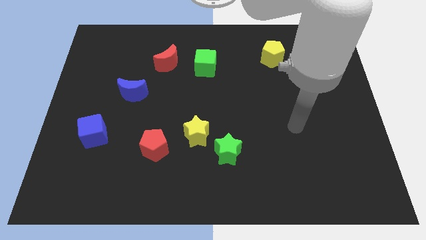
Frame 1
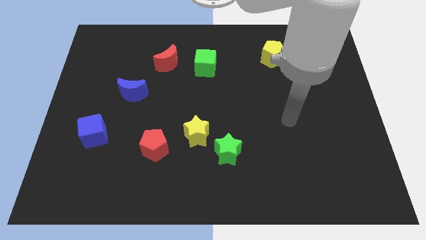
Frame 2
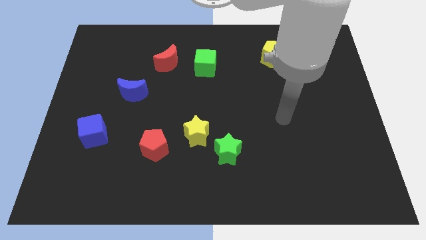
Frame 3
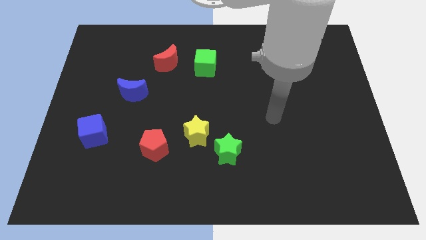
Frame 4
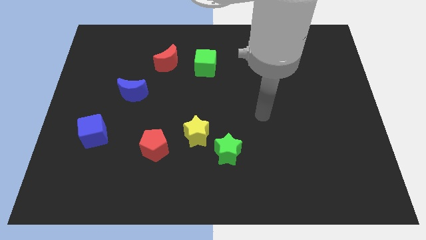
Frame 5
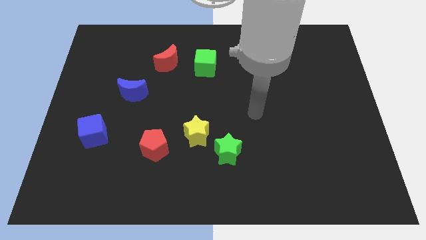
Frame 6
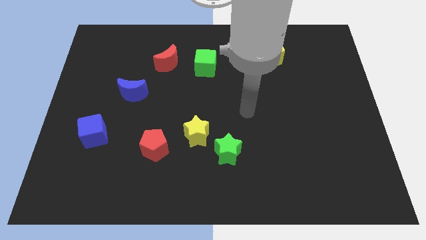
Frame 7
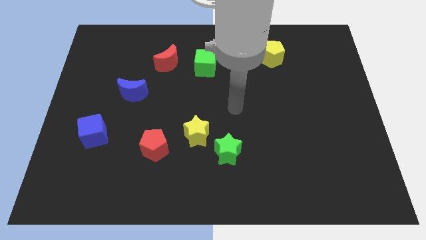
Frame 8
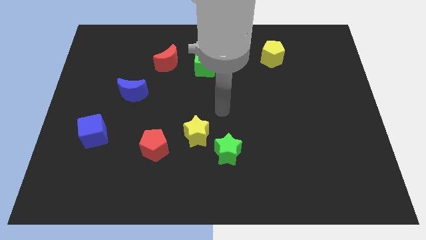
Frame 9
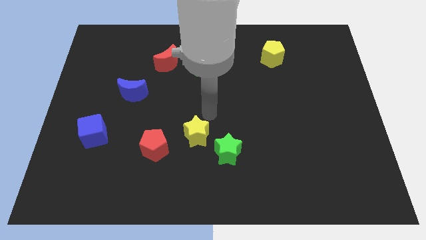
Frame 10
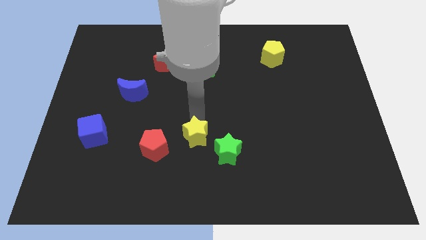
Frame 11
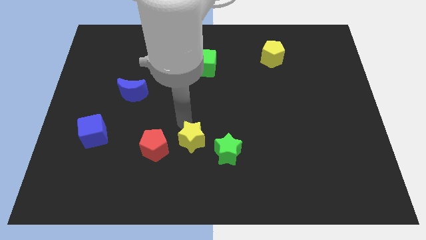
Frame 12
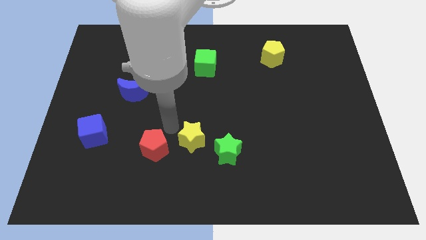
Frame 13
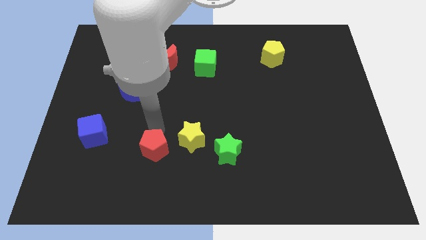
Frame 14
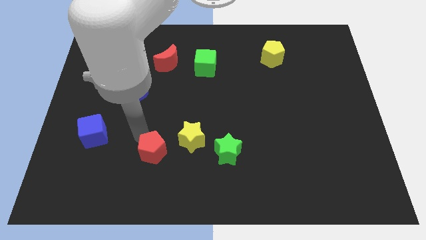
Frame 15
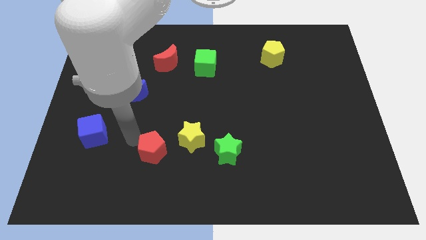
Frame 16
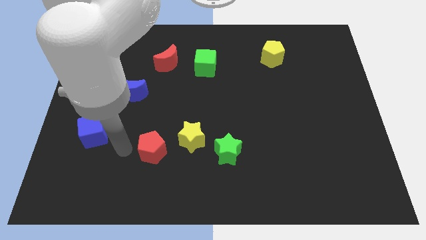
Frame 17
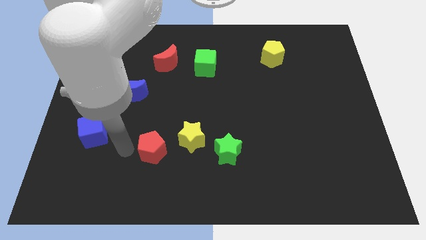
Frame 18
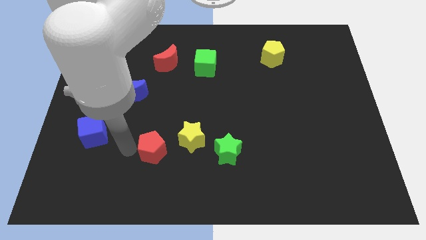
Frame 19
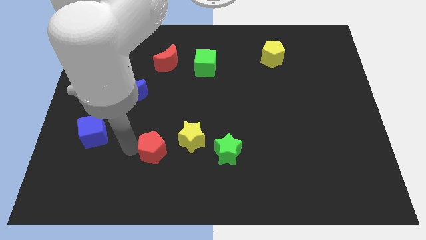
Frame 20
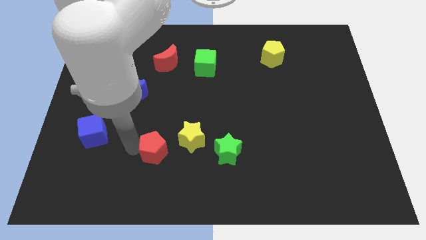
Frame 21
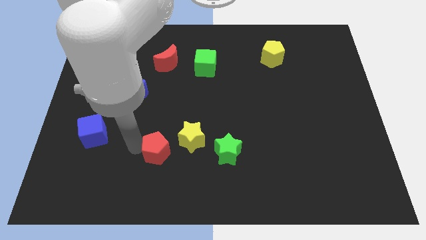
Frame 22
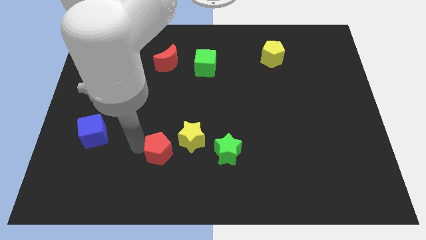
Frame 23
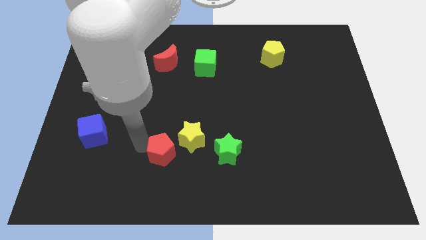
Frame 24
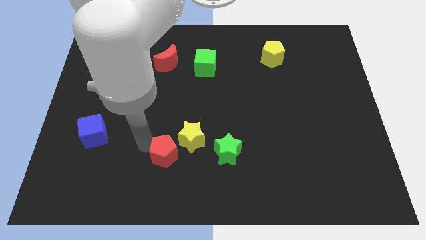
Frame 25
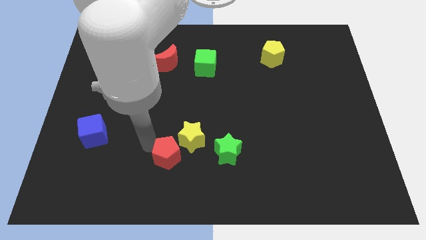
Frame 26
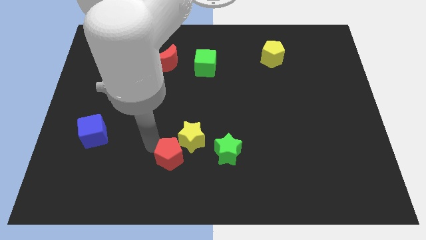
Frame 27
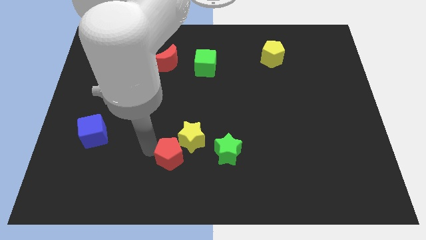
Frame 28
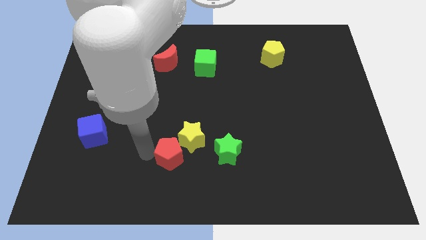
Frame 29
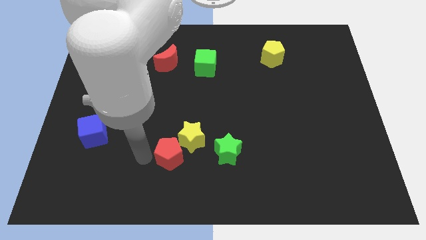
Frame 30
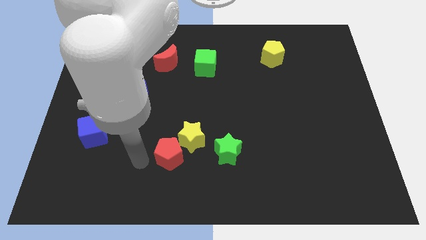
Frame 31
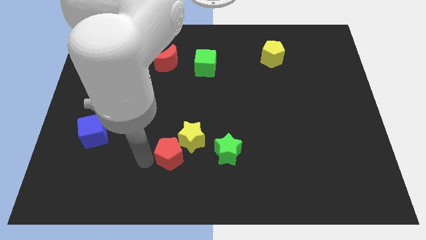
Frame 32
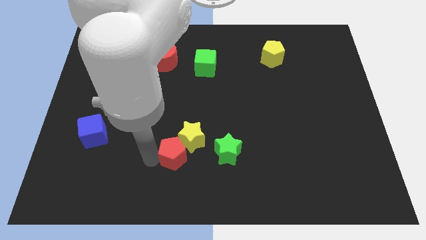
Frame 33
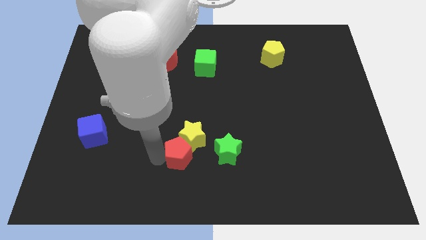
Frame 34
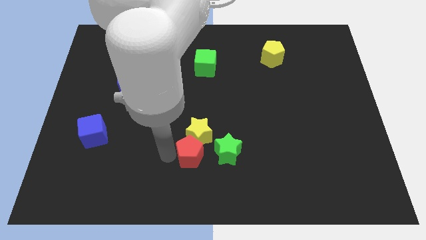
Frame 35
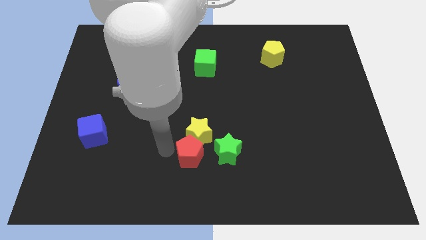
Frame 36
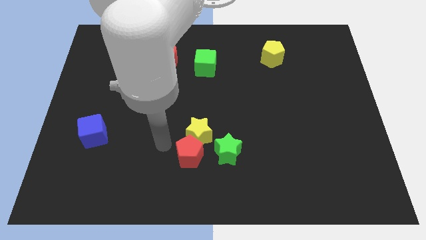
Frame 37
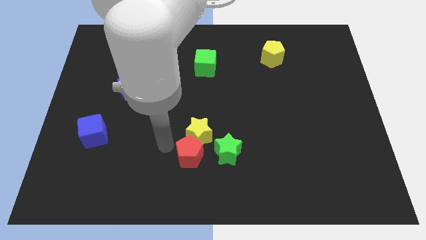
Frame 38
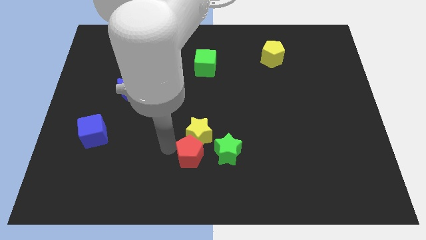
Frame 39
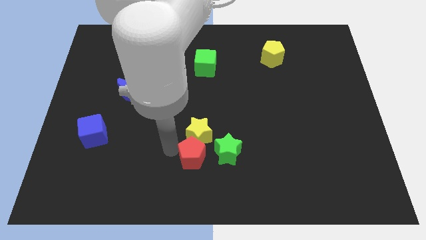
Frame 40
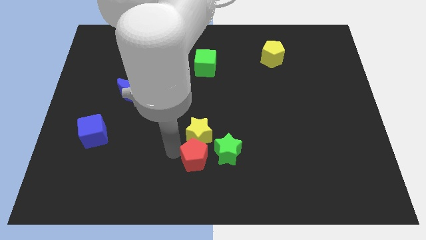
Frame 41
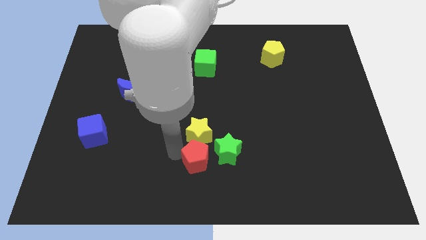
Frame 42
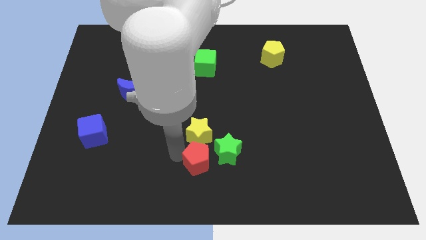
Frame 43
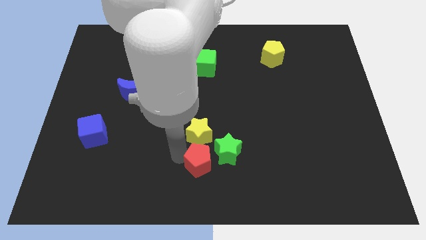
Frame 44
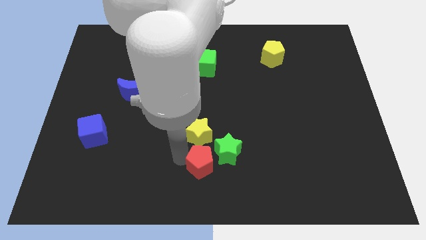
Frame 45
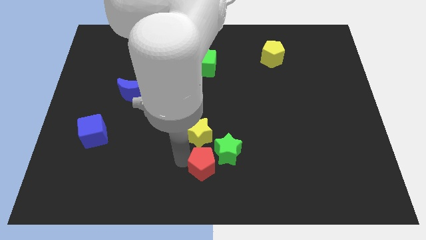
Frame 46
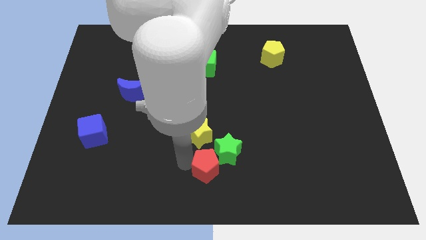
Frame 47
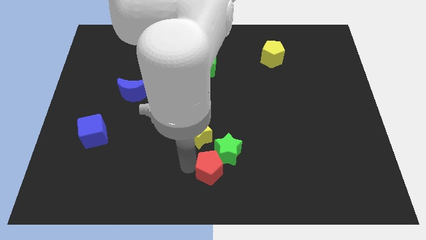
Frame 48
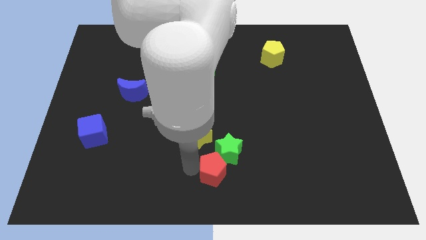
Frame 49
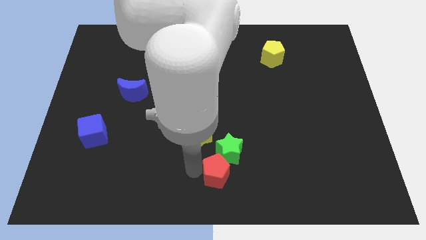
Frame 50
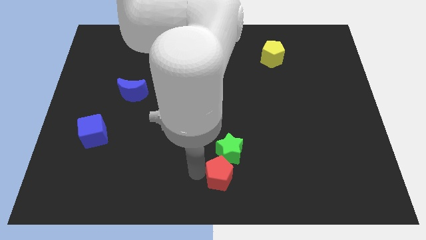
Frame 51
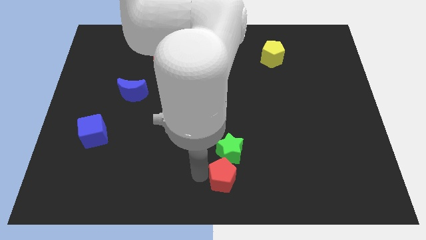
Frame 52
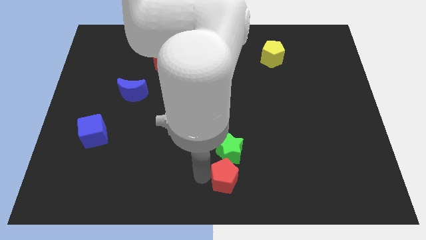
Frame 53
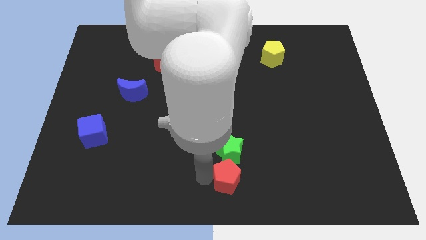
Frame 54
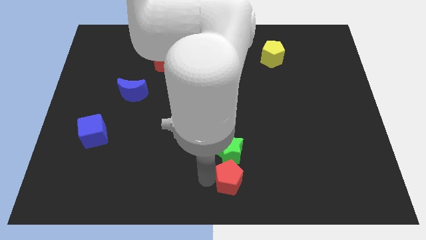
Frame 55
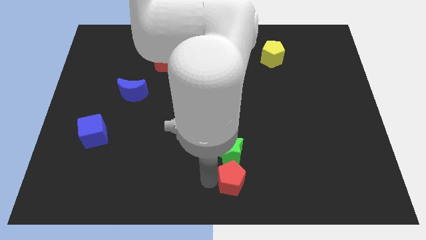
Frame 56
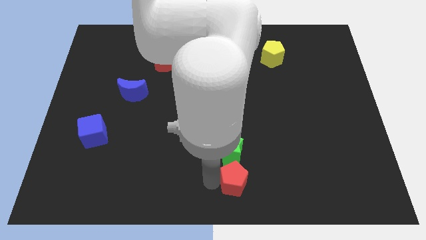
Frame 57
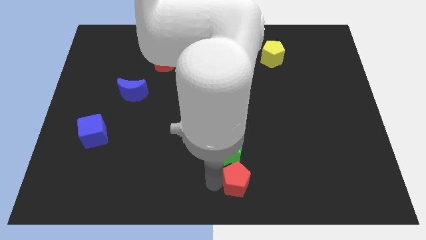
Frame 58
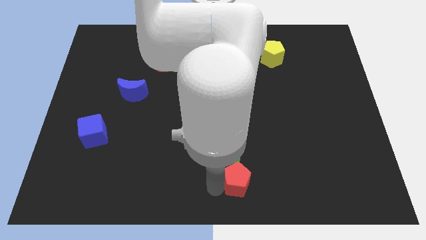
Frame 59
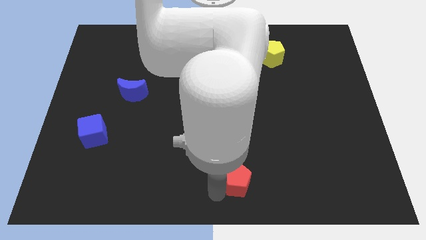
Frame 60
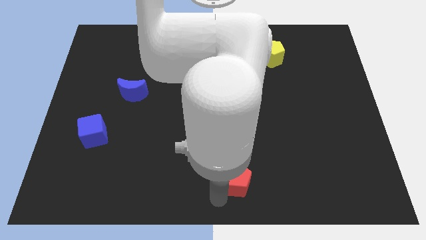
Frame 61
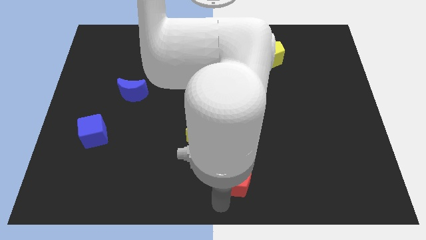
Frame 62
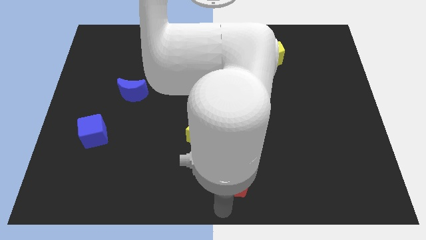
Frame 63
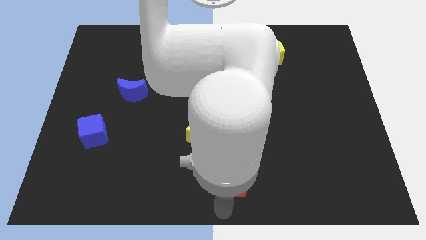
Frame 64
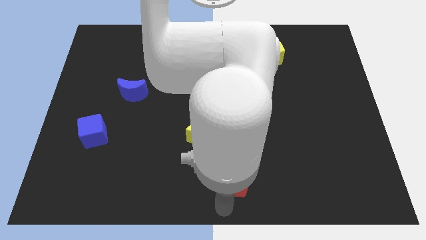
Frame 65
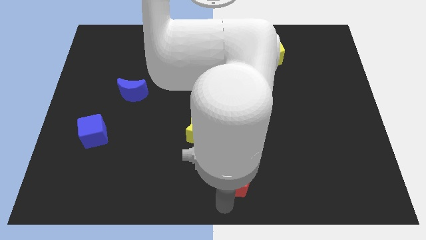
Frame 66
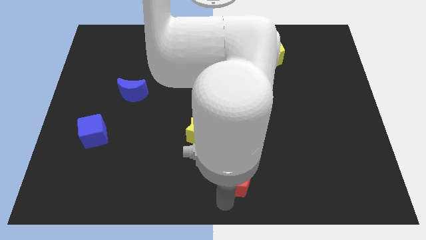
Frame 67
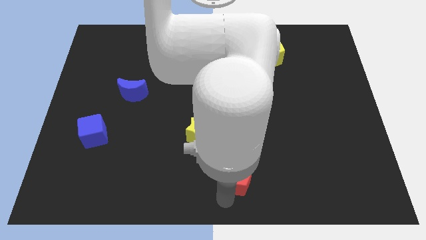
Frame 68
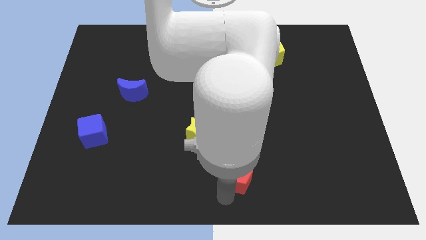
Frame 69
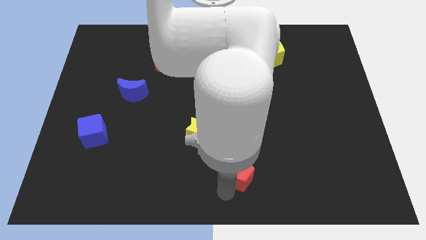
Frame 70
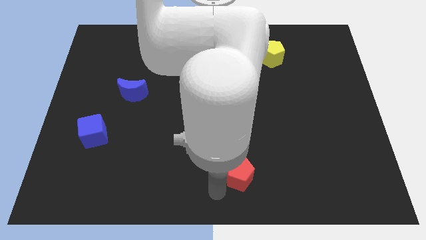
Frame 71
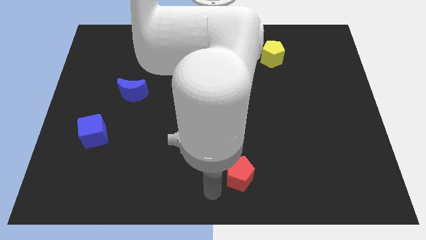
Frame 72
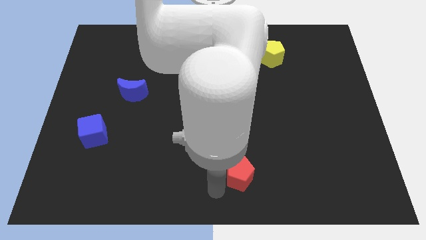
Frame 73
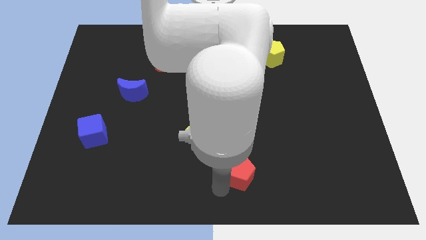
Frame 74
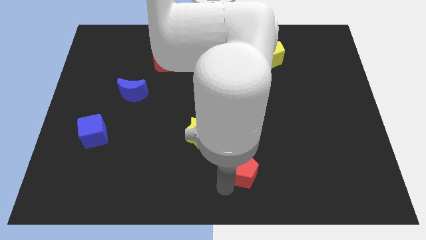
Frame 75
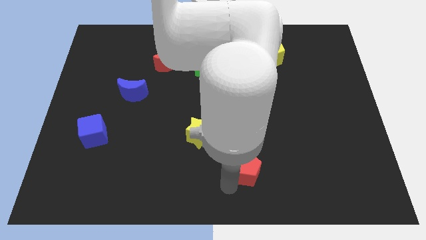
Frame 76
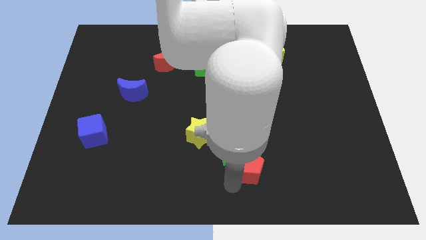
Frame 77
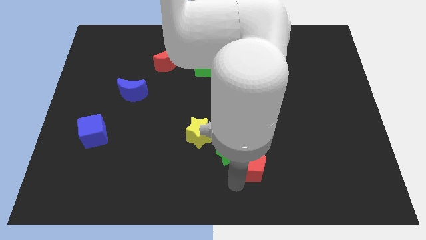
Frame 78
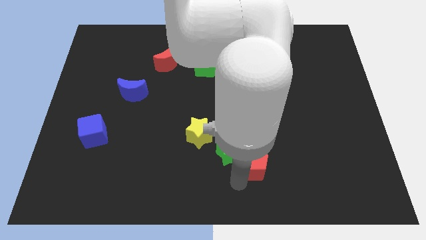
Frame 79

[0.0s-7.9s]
slide the red pentagon right

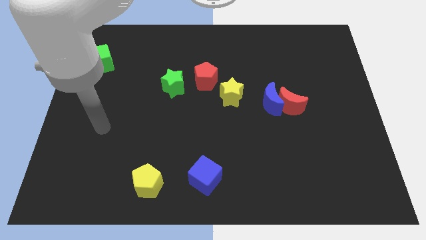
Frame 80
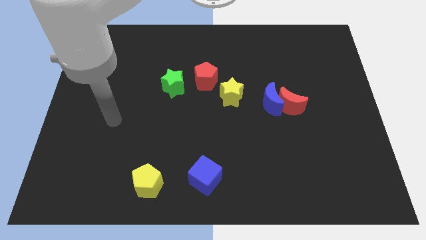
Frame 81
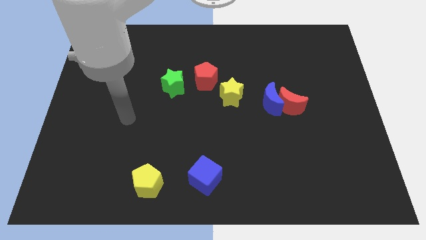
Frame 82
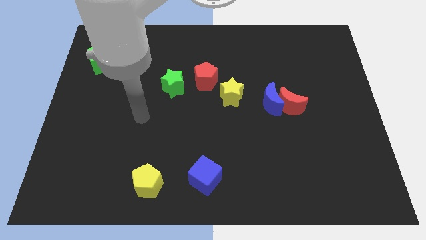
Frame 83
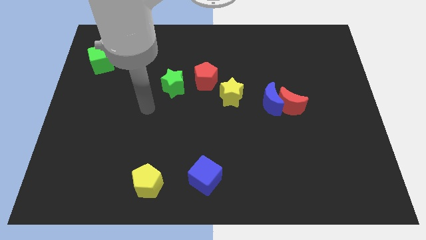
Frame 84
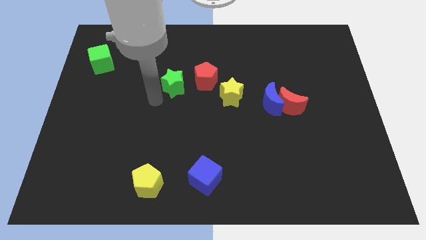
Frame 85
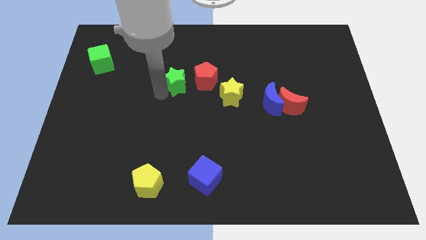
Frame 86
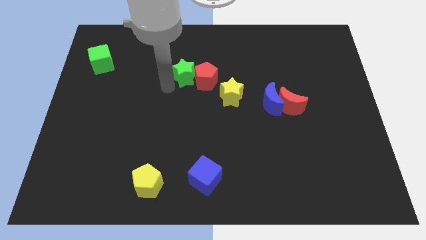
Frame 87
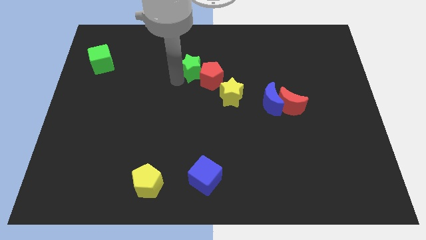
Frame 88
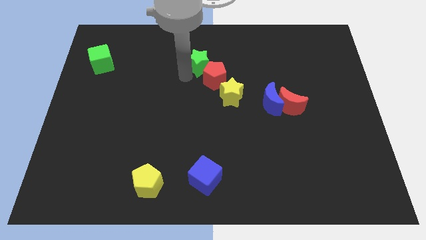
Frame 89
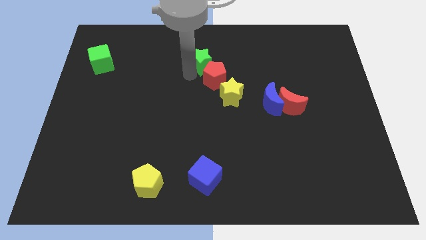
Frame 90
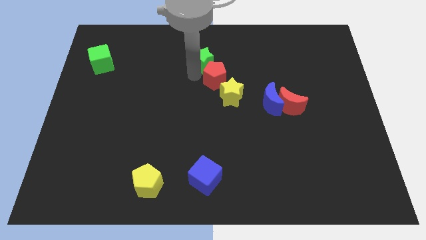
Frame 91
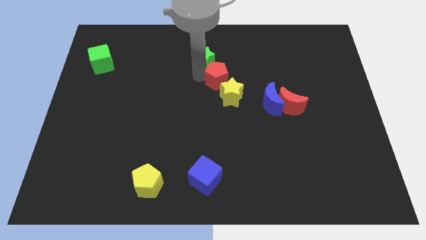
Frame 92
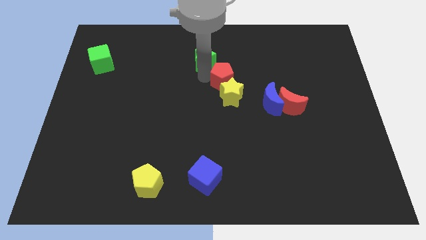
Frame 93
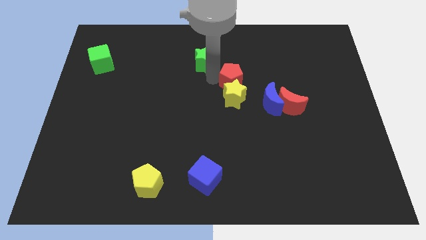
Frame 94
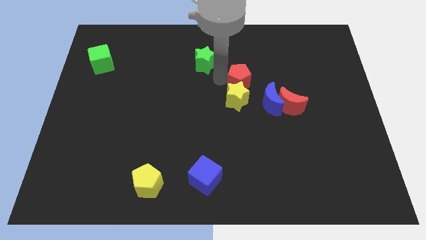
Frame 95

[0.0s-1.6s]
push the red pentagon right a bit
